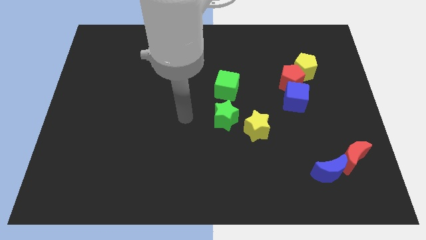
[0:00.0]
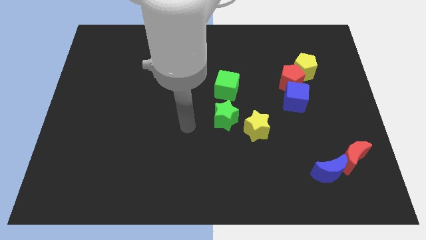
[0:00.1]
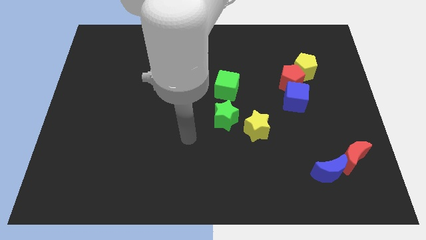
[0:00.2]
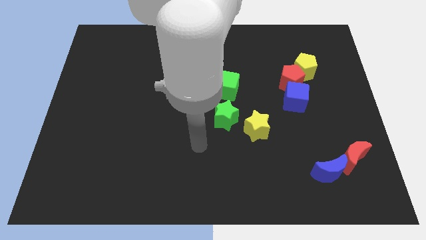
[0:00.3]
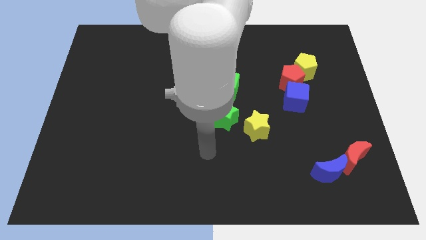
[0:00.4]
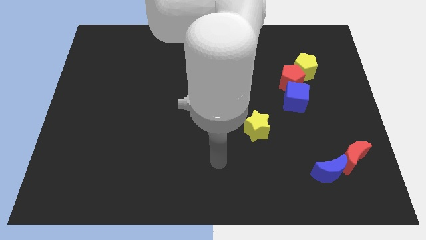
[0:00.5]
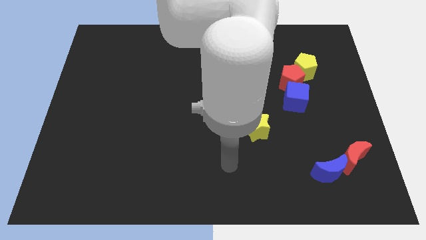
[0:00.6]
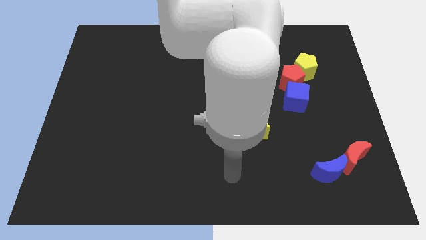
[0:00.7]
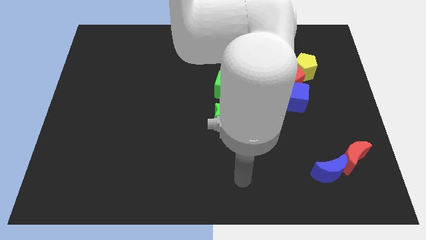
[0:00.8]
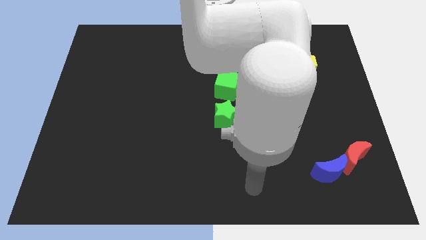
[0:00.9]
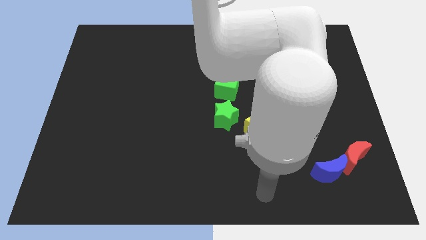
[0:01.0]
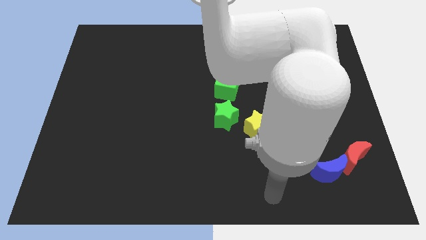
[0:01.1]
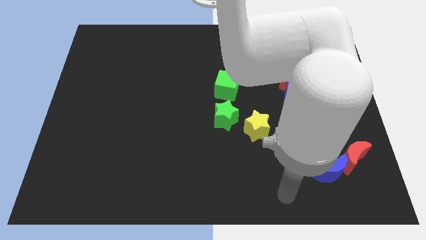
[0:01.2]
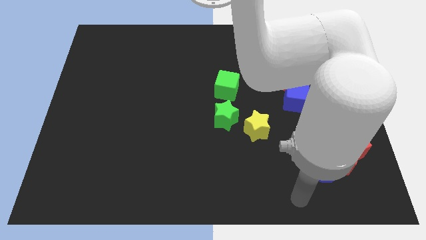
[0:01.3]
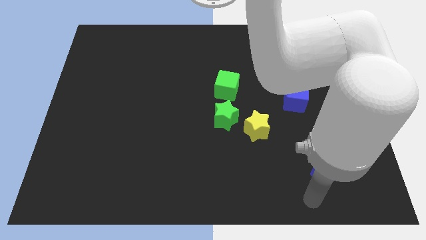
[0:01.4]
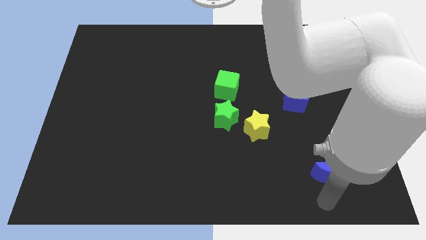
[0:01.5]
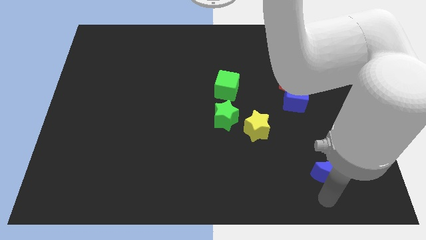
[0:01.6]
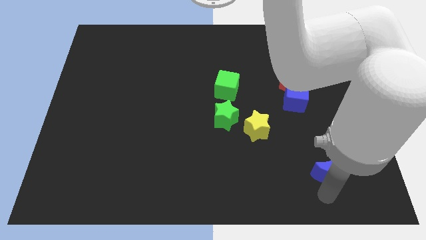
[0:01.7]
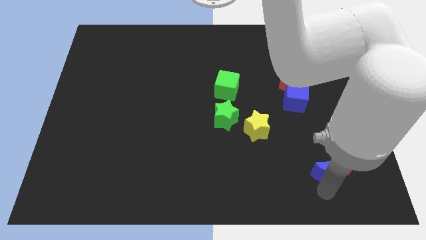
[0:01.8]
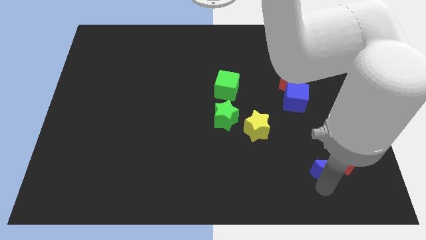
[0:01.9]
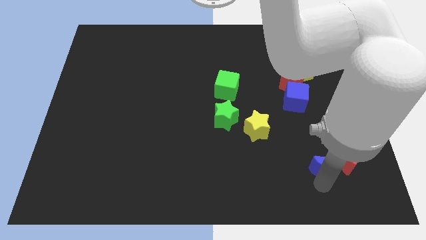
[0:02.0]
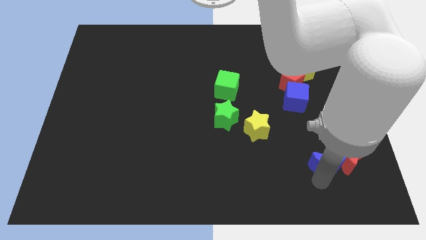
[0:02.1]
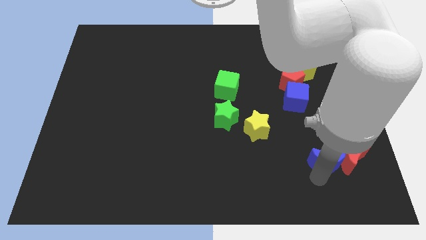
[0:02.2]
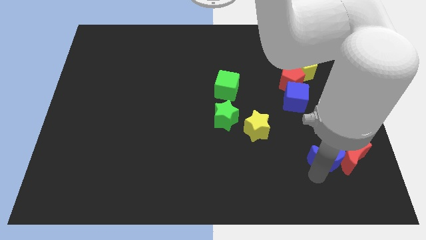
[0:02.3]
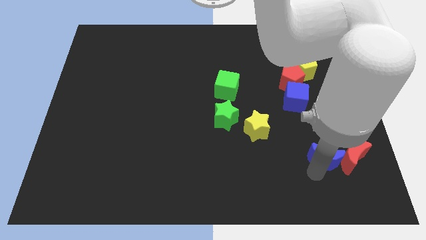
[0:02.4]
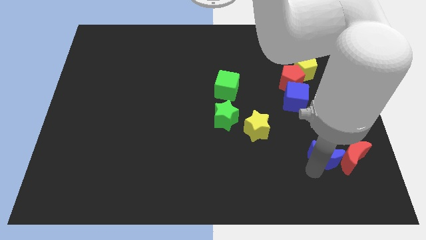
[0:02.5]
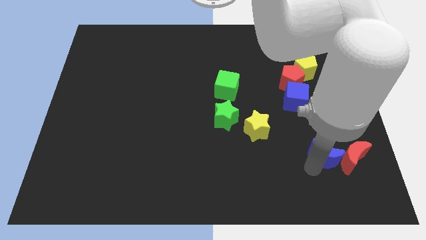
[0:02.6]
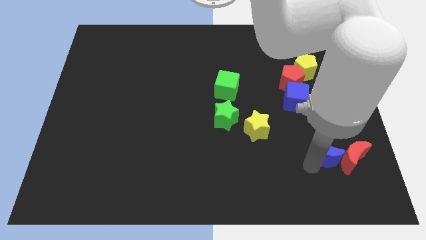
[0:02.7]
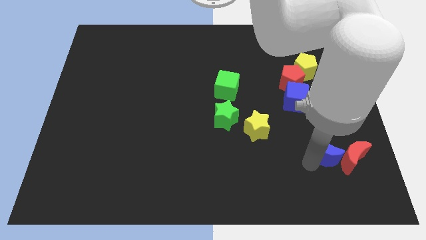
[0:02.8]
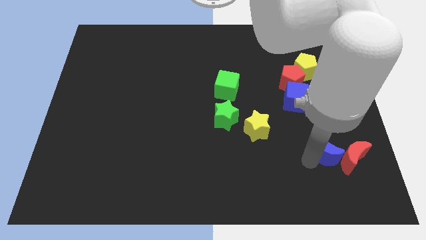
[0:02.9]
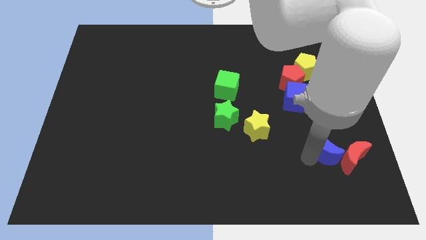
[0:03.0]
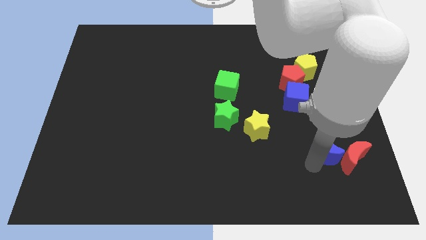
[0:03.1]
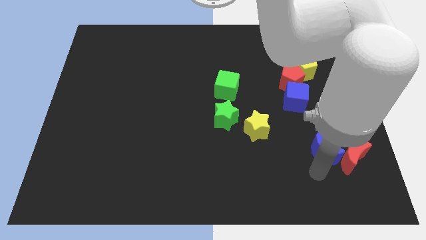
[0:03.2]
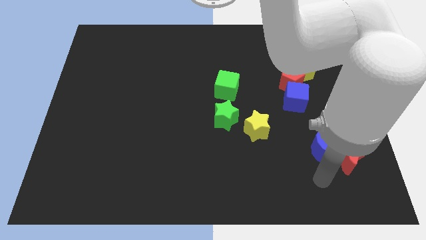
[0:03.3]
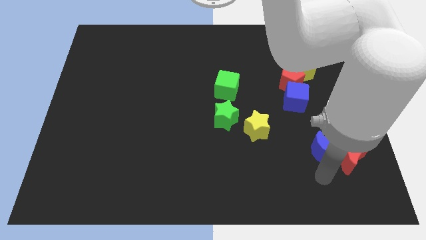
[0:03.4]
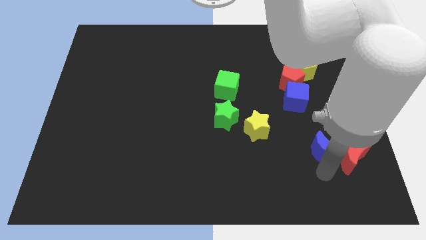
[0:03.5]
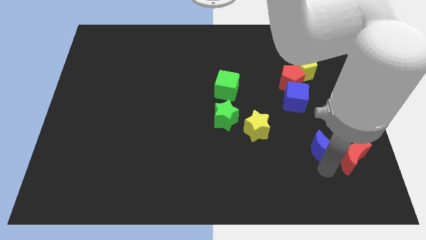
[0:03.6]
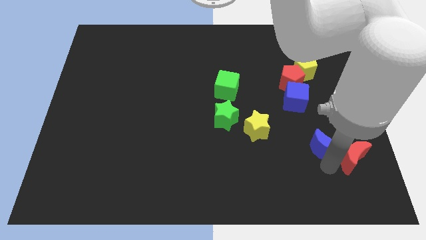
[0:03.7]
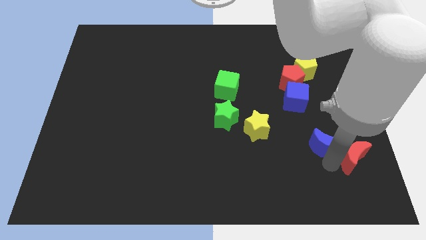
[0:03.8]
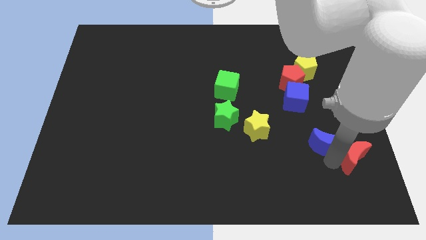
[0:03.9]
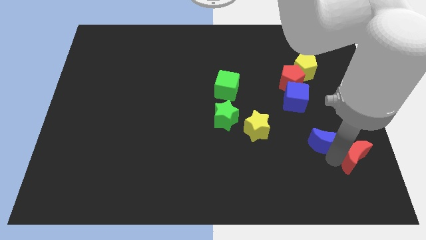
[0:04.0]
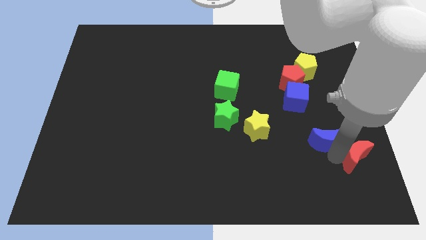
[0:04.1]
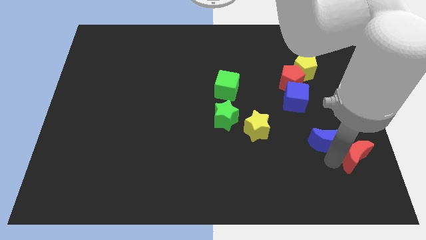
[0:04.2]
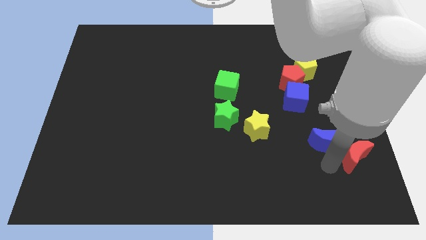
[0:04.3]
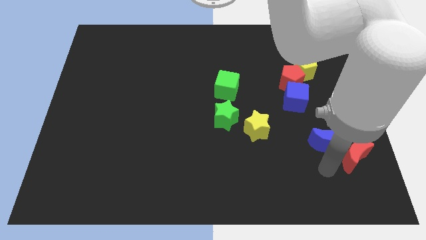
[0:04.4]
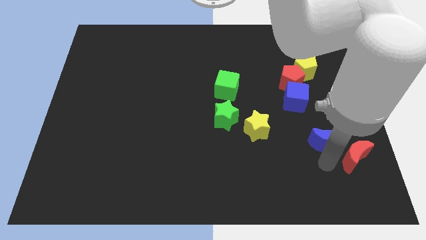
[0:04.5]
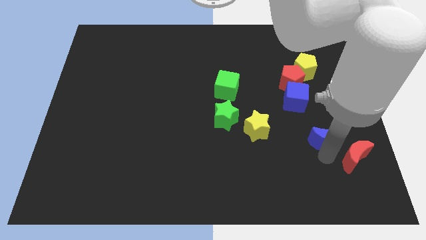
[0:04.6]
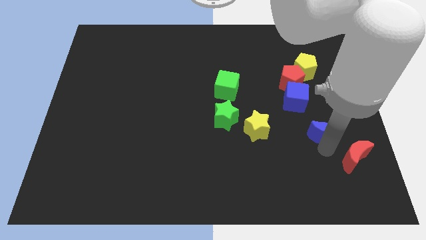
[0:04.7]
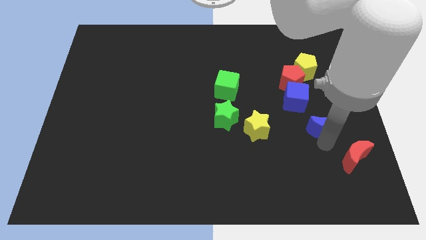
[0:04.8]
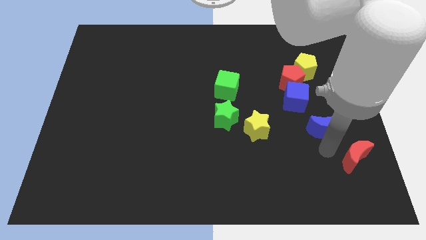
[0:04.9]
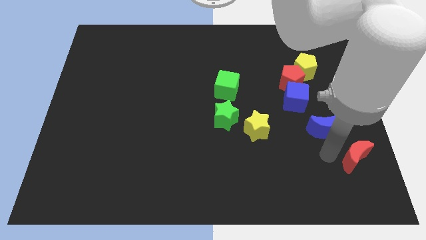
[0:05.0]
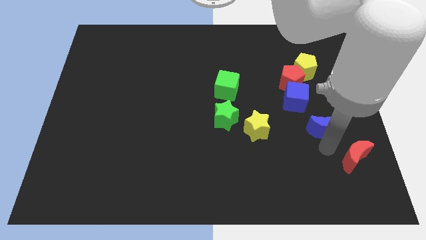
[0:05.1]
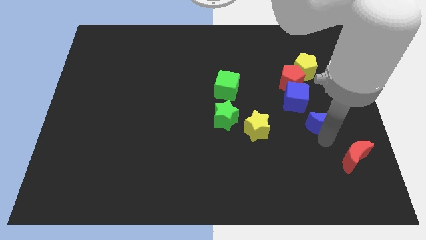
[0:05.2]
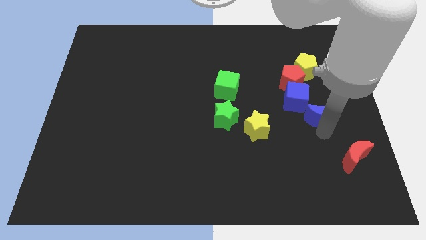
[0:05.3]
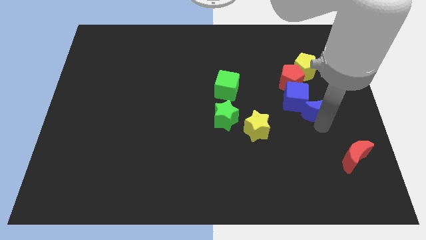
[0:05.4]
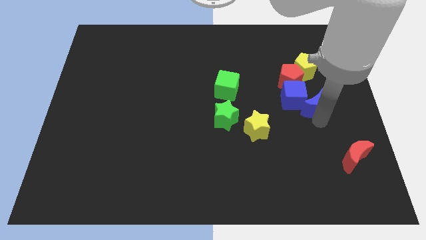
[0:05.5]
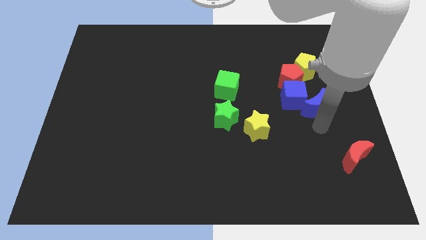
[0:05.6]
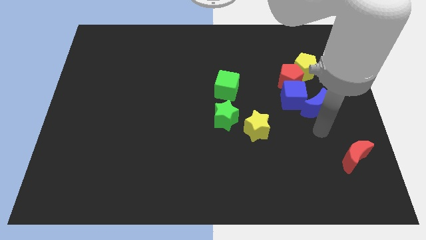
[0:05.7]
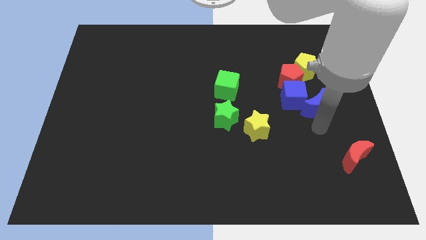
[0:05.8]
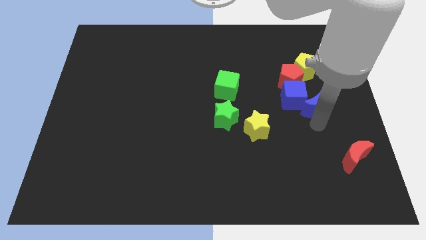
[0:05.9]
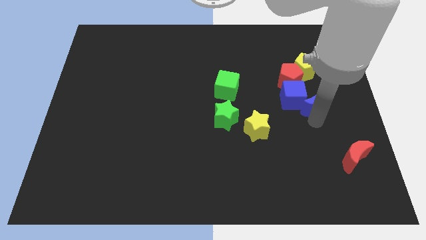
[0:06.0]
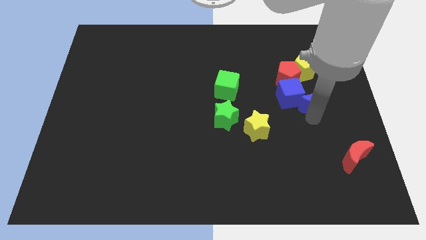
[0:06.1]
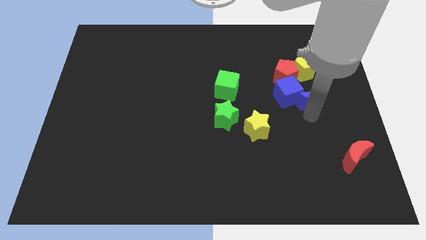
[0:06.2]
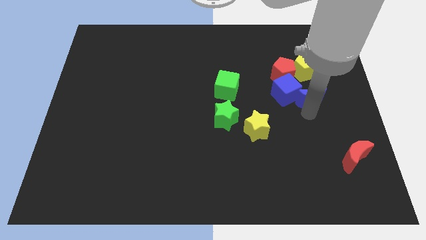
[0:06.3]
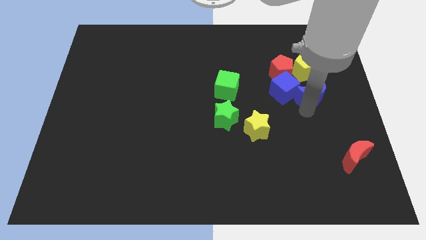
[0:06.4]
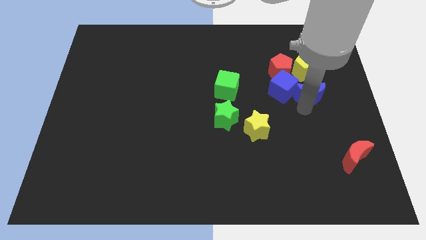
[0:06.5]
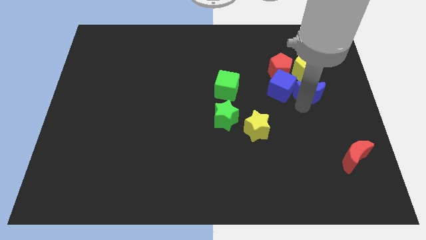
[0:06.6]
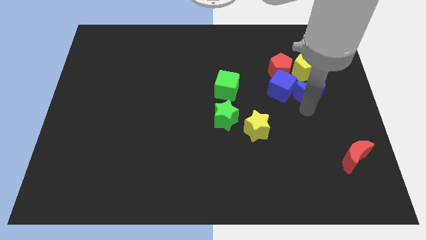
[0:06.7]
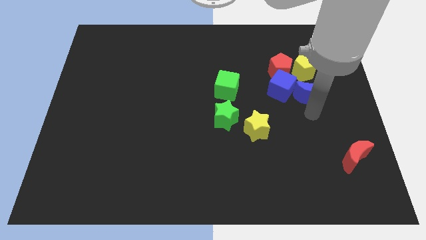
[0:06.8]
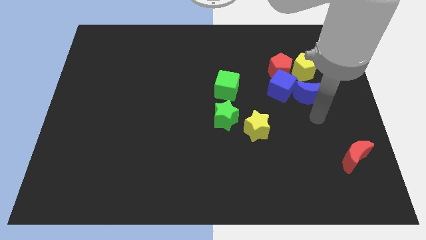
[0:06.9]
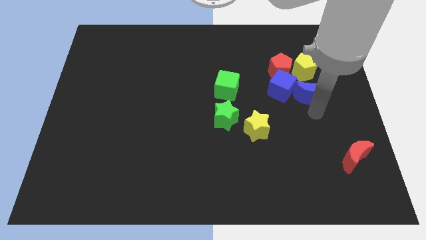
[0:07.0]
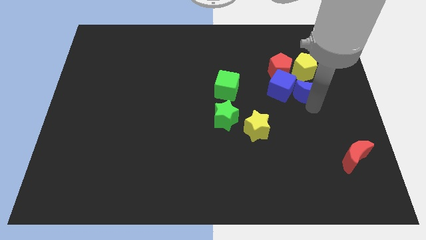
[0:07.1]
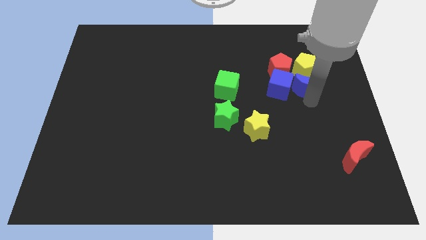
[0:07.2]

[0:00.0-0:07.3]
push the blue moon to the top right of the blue cube
